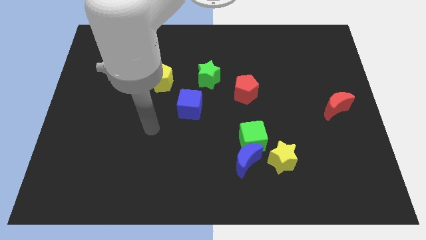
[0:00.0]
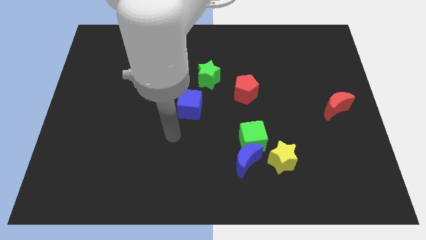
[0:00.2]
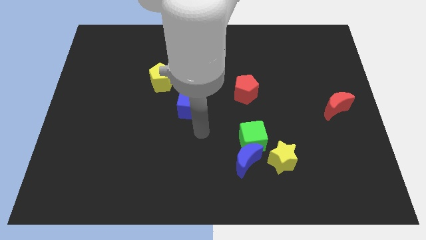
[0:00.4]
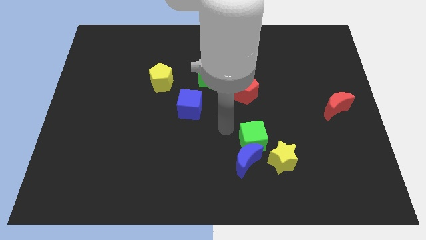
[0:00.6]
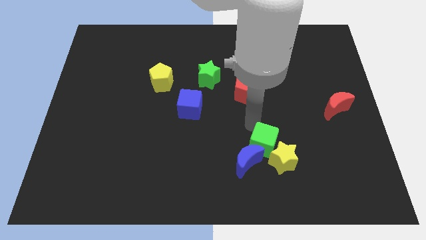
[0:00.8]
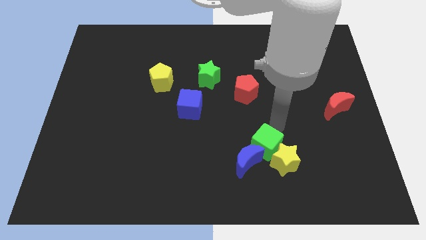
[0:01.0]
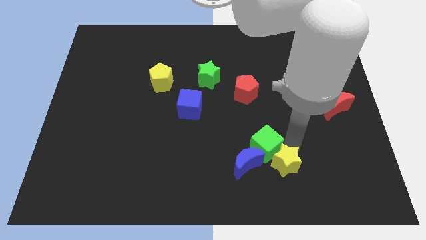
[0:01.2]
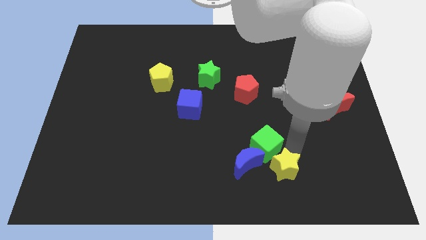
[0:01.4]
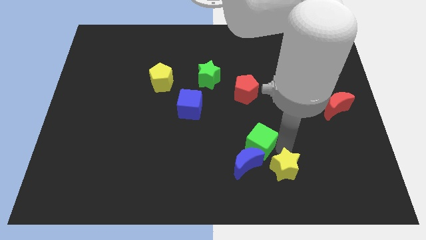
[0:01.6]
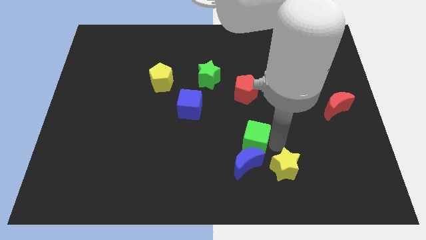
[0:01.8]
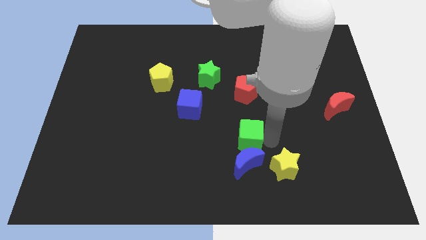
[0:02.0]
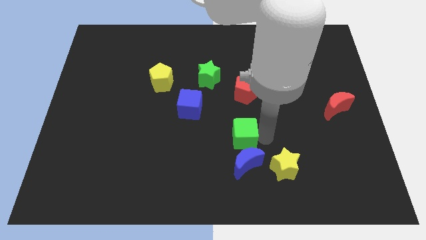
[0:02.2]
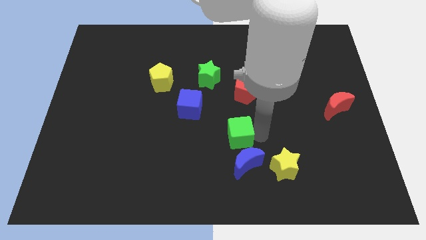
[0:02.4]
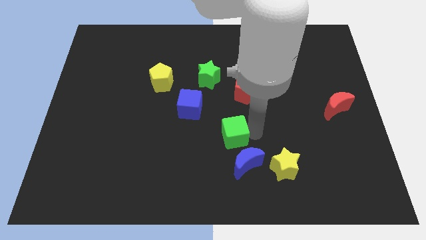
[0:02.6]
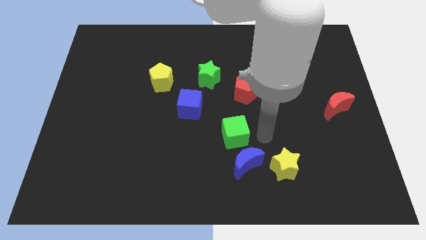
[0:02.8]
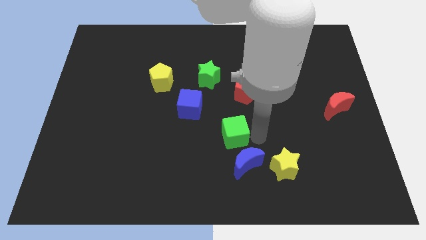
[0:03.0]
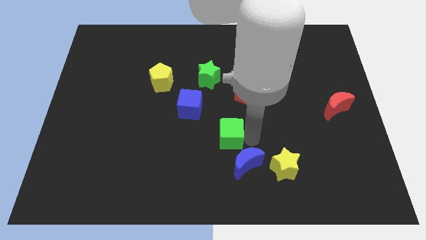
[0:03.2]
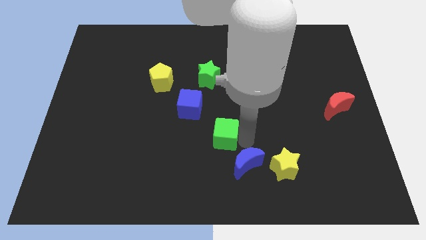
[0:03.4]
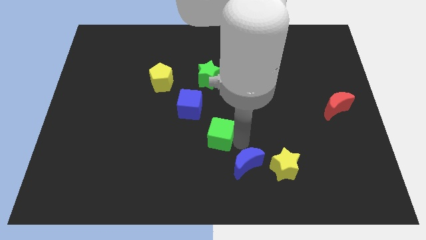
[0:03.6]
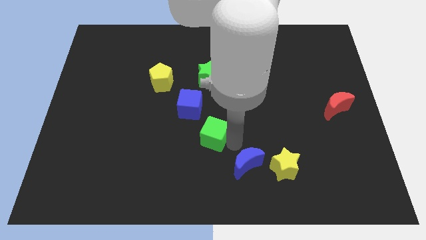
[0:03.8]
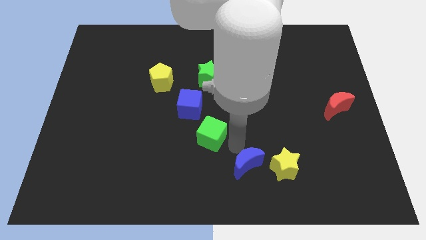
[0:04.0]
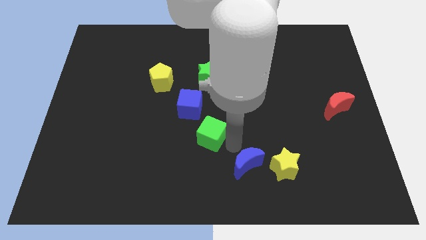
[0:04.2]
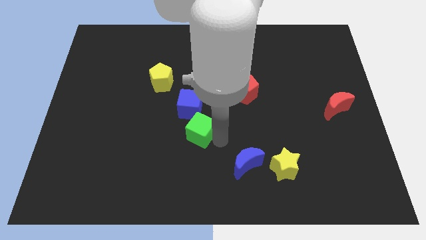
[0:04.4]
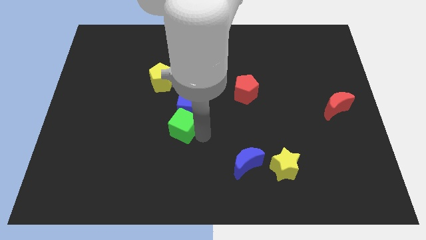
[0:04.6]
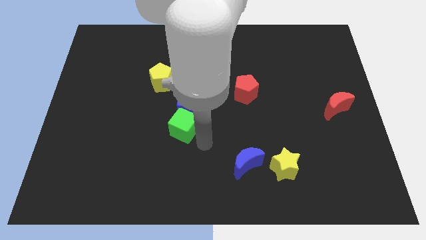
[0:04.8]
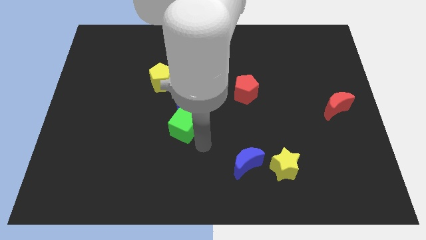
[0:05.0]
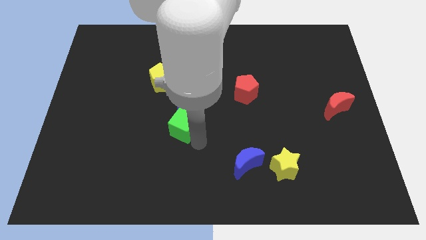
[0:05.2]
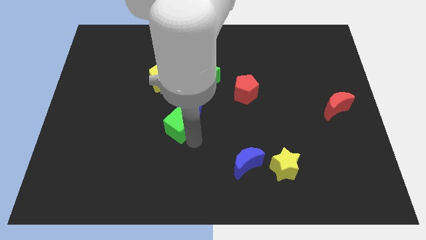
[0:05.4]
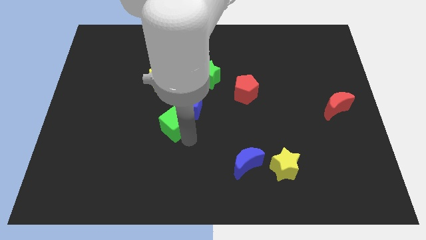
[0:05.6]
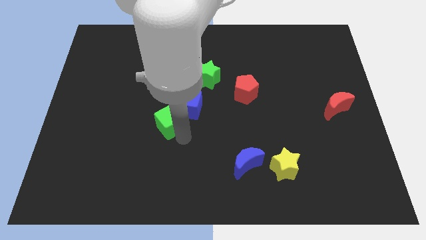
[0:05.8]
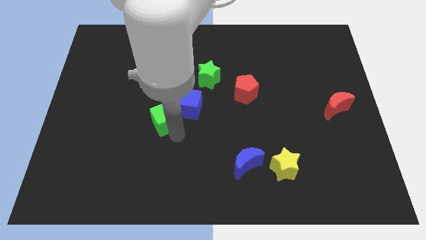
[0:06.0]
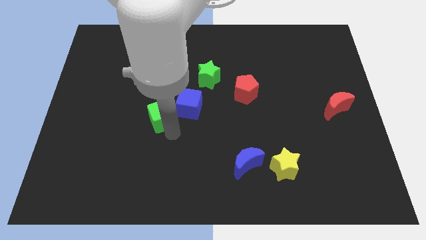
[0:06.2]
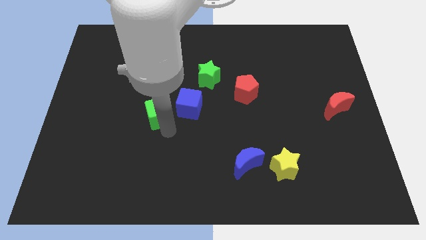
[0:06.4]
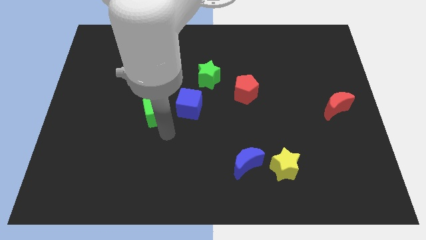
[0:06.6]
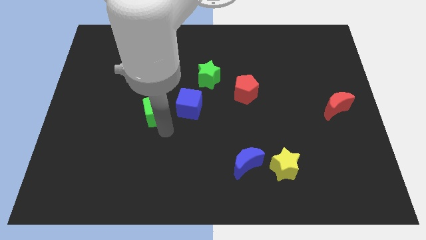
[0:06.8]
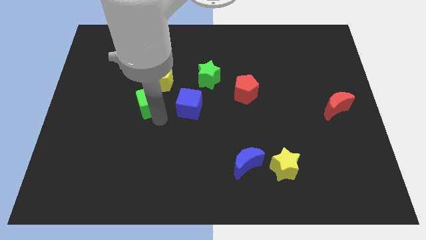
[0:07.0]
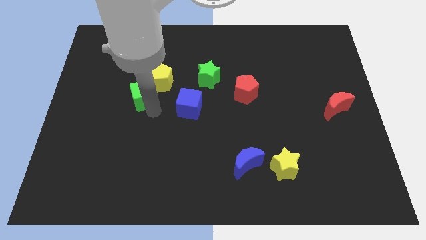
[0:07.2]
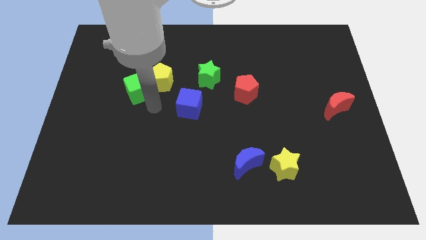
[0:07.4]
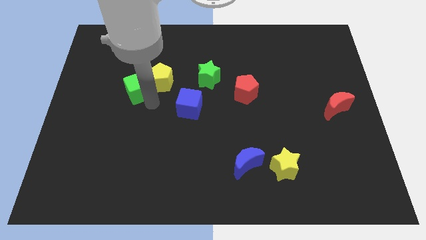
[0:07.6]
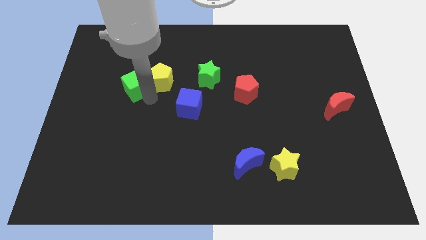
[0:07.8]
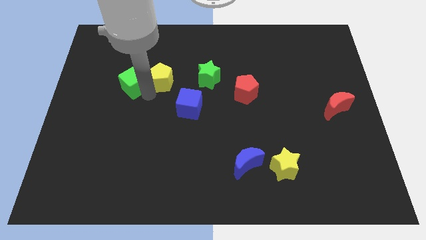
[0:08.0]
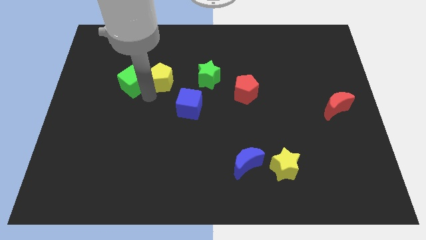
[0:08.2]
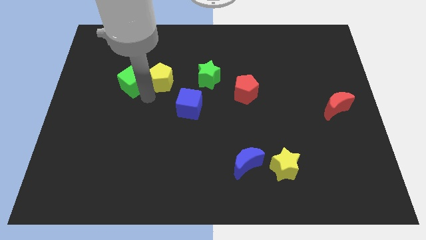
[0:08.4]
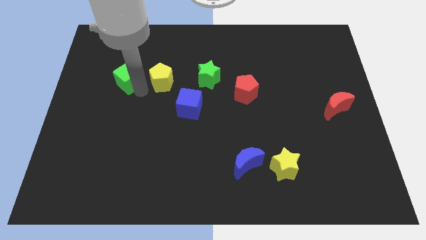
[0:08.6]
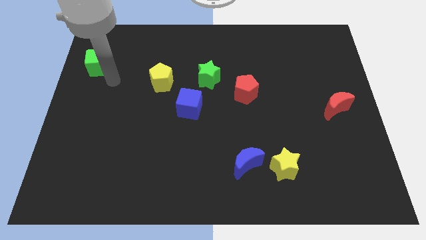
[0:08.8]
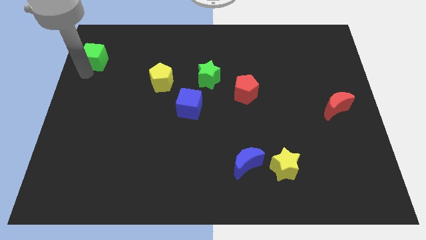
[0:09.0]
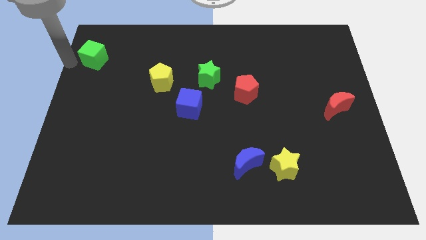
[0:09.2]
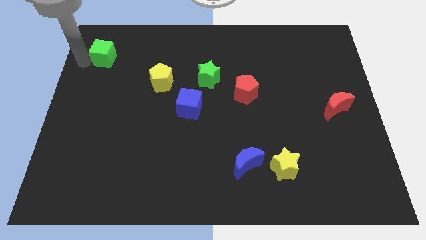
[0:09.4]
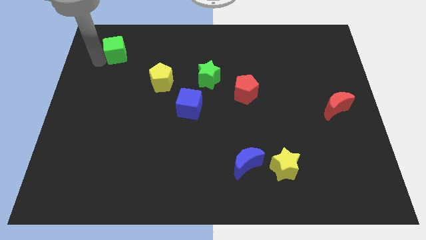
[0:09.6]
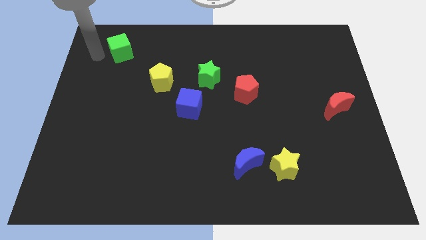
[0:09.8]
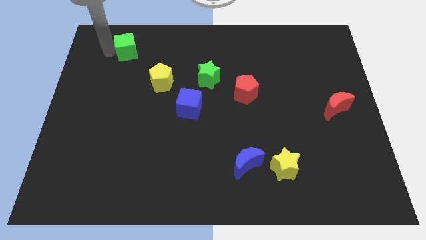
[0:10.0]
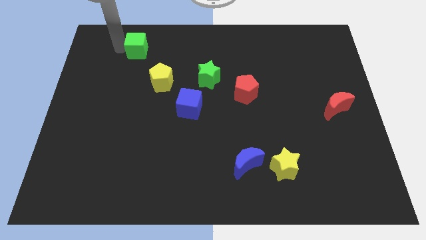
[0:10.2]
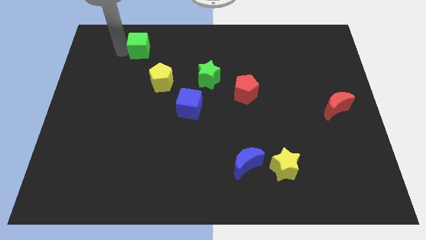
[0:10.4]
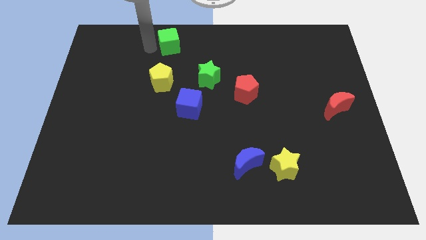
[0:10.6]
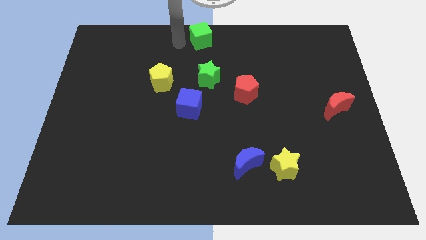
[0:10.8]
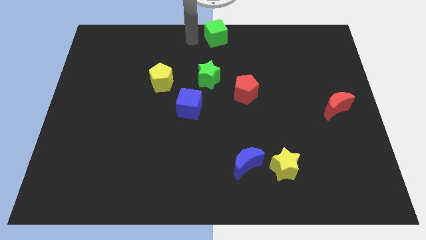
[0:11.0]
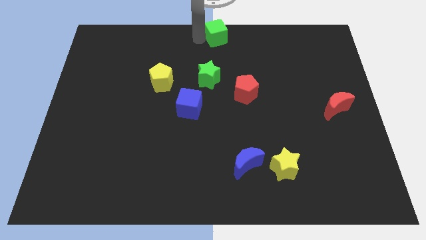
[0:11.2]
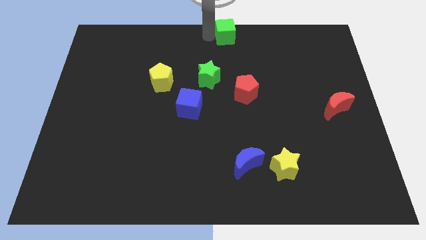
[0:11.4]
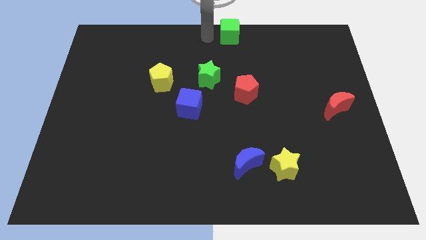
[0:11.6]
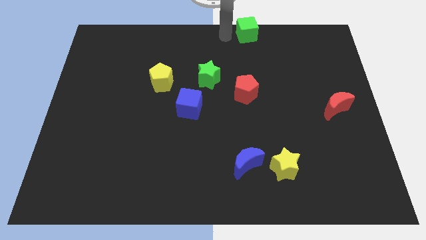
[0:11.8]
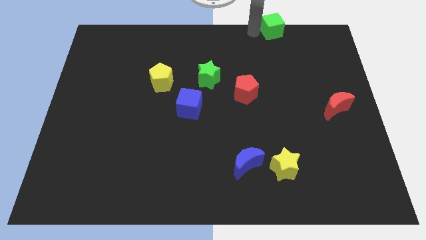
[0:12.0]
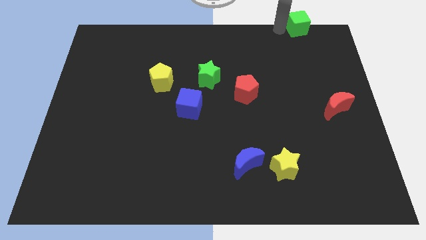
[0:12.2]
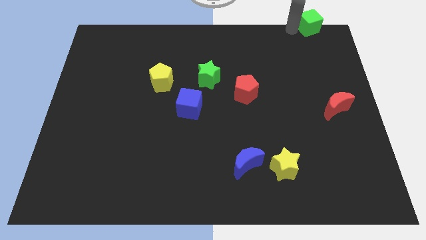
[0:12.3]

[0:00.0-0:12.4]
slide the green cube to the top right
